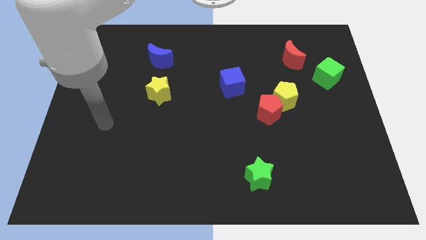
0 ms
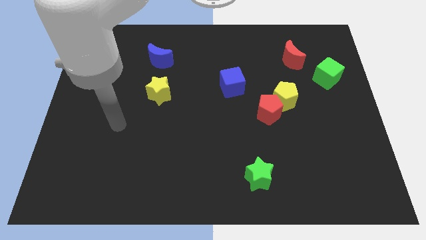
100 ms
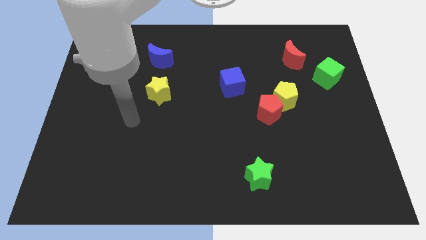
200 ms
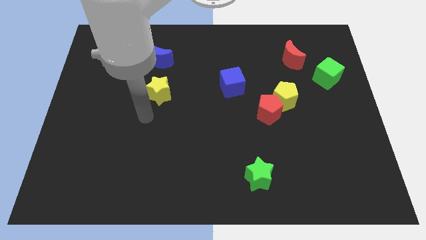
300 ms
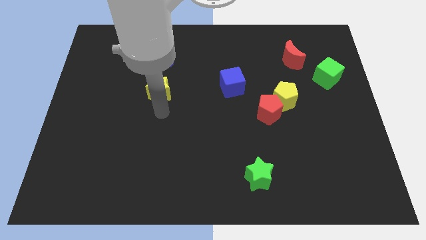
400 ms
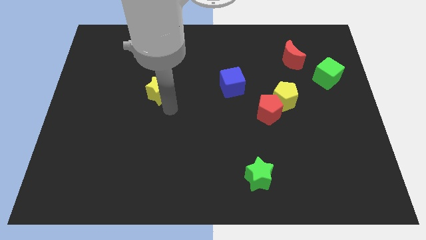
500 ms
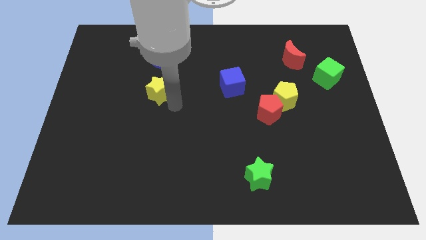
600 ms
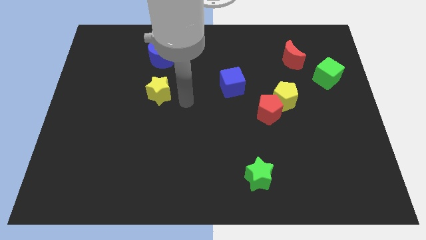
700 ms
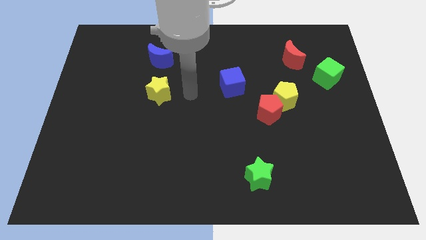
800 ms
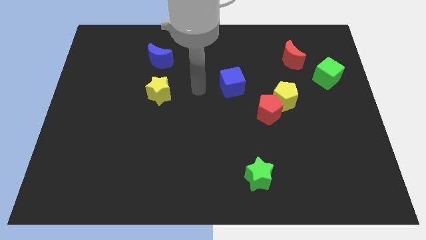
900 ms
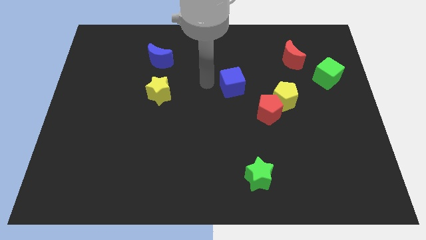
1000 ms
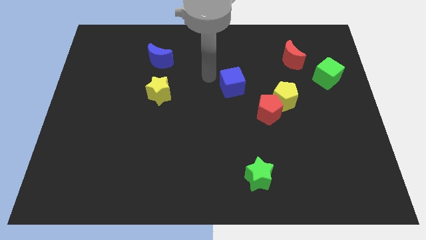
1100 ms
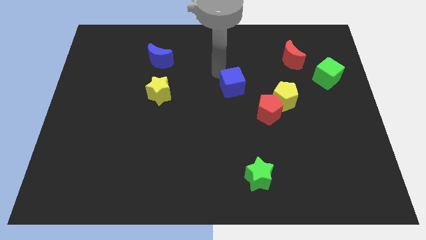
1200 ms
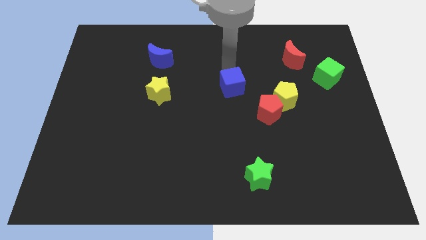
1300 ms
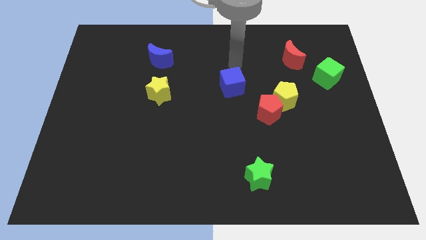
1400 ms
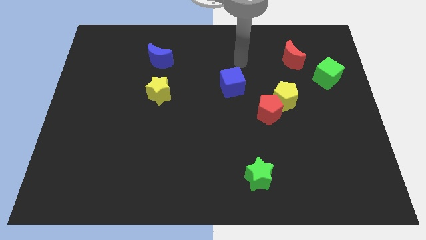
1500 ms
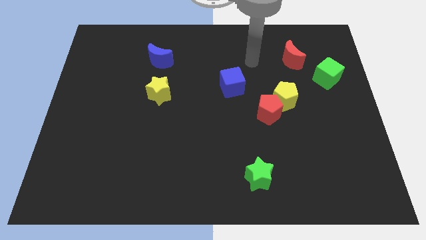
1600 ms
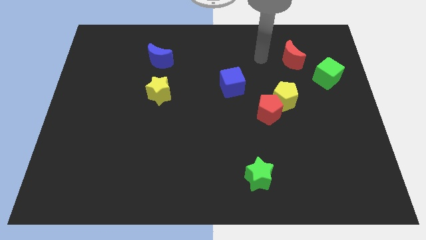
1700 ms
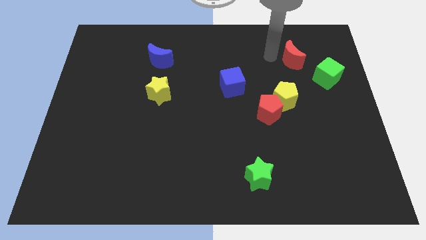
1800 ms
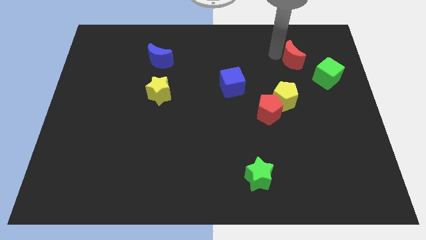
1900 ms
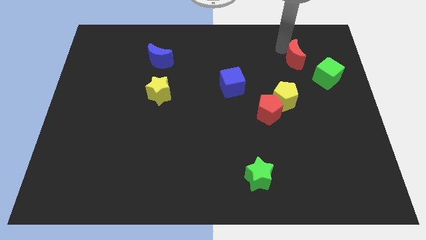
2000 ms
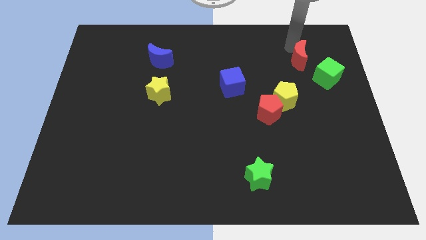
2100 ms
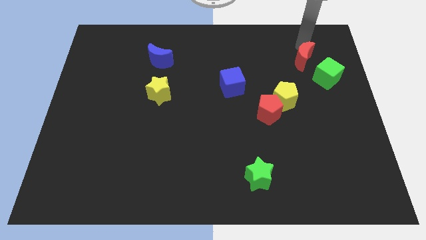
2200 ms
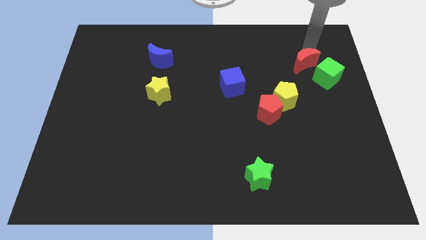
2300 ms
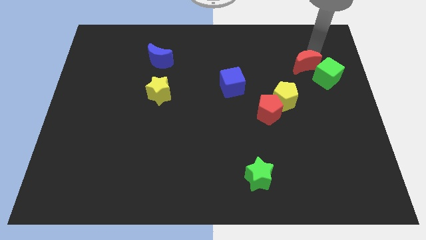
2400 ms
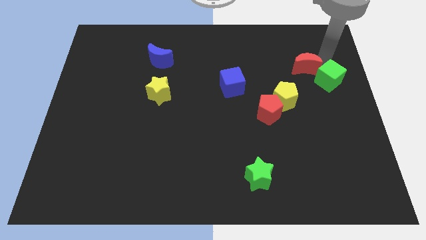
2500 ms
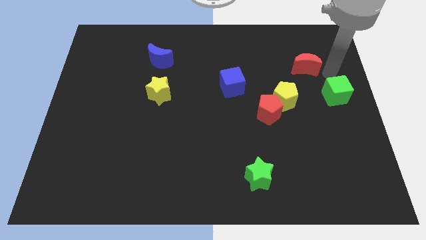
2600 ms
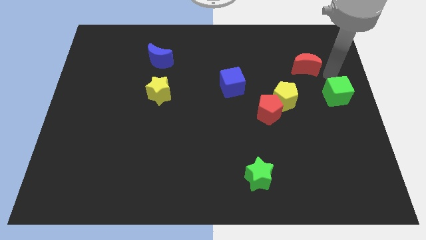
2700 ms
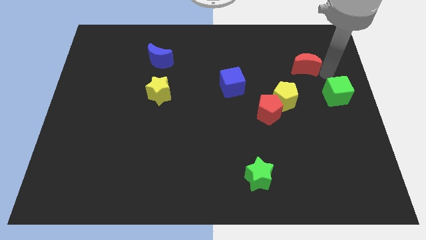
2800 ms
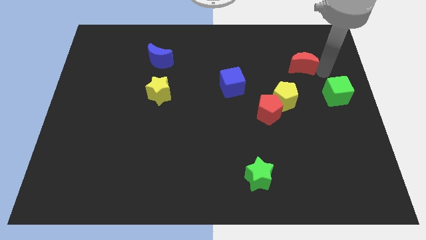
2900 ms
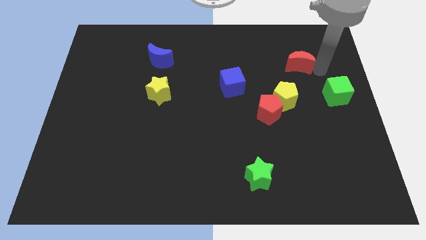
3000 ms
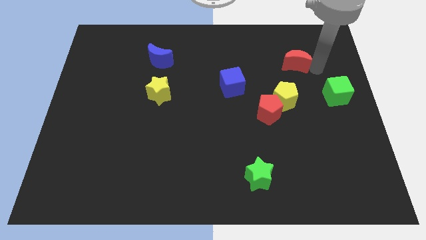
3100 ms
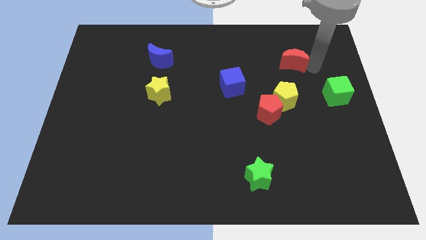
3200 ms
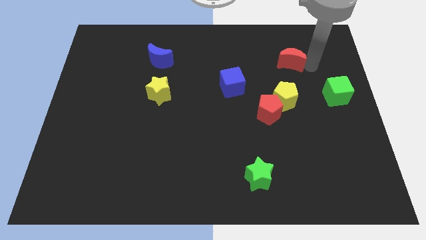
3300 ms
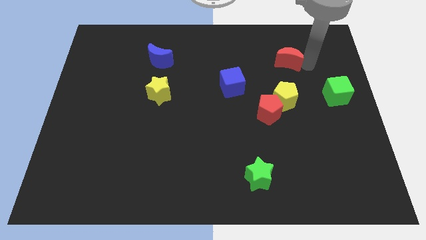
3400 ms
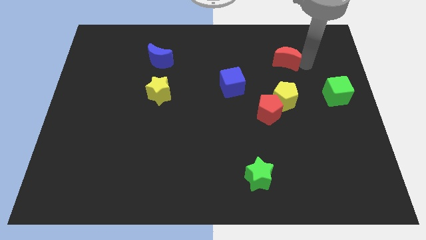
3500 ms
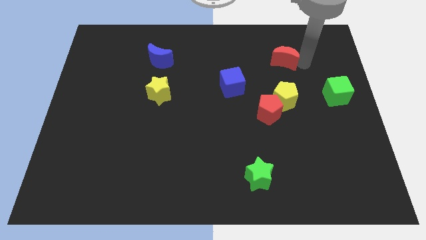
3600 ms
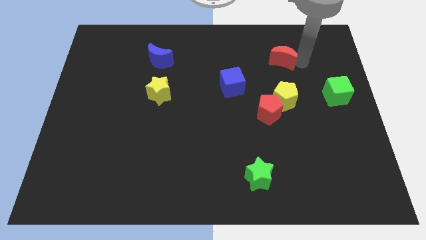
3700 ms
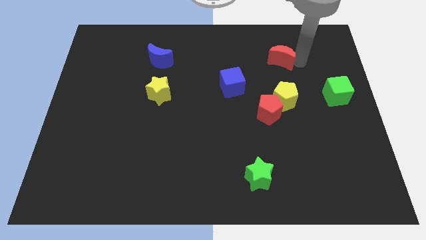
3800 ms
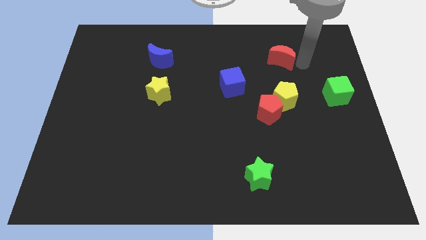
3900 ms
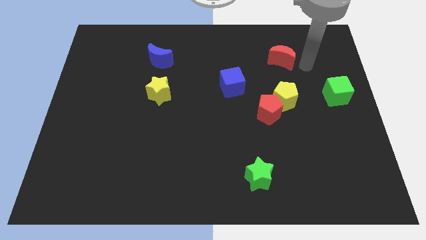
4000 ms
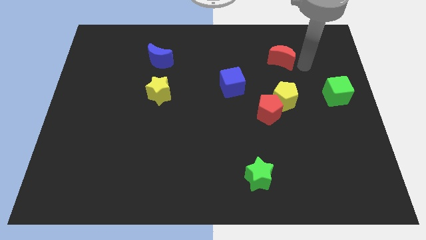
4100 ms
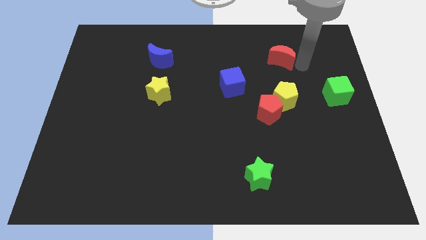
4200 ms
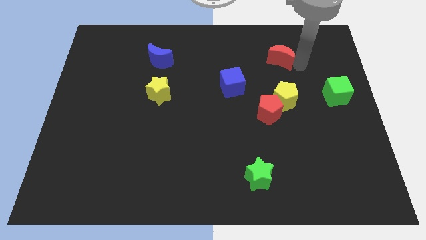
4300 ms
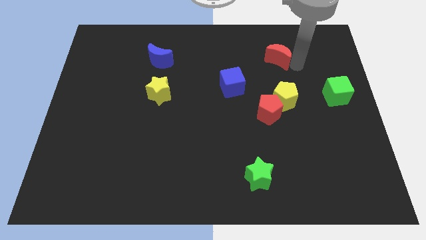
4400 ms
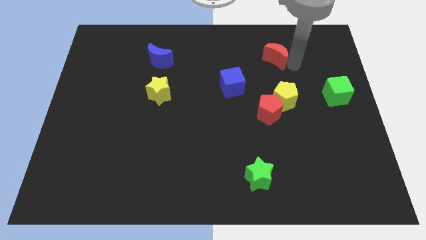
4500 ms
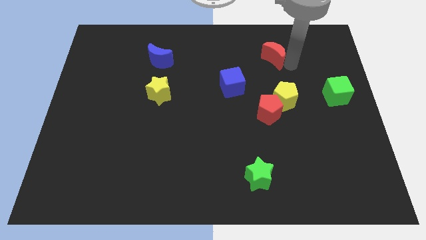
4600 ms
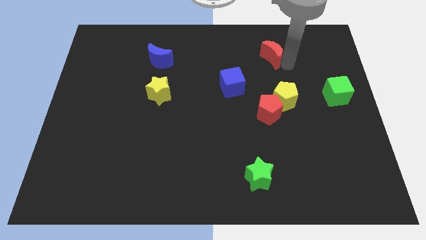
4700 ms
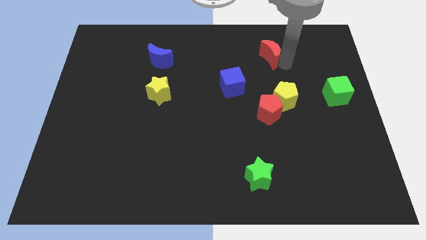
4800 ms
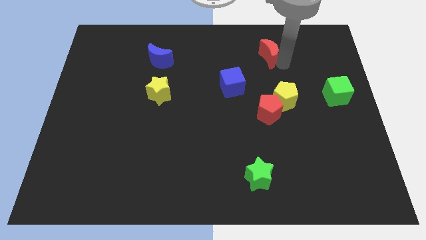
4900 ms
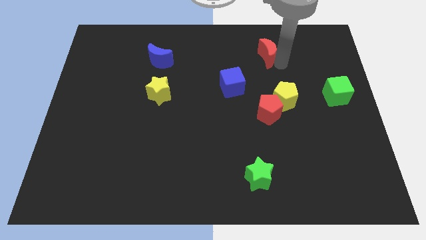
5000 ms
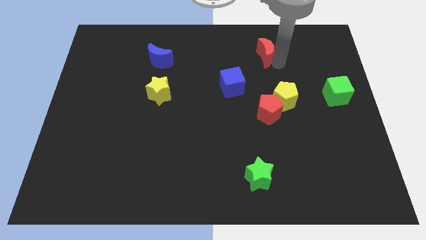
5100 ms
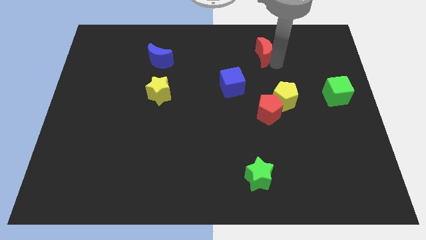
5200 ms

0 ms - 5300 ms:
slide the red moon a little bit left

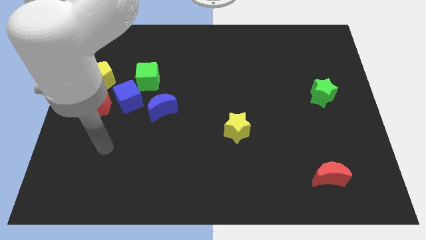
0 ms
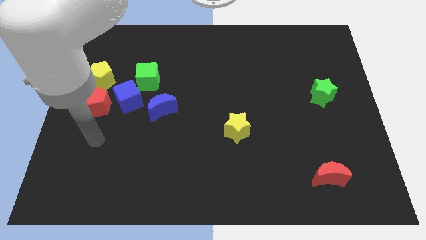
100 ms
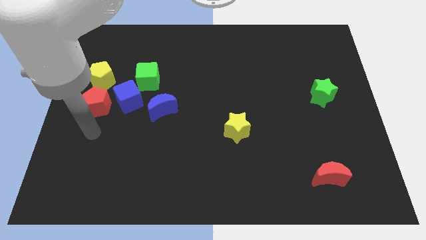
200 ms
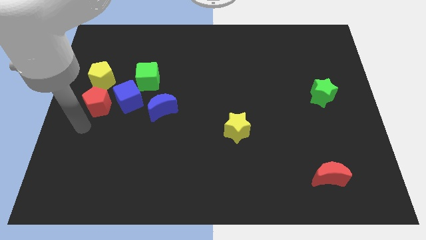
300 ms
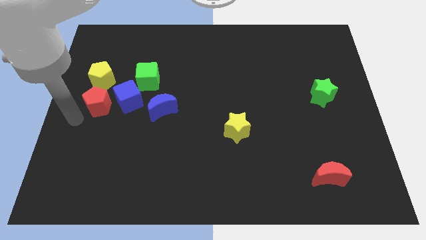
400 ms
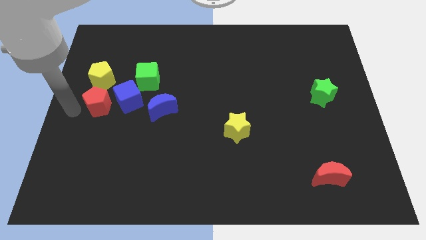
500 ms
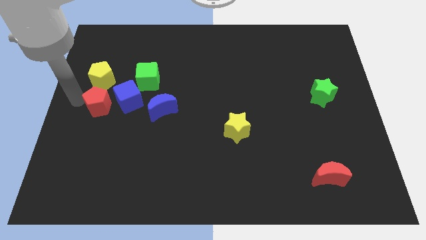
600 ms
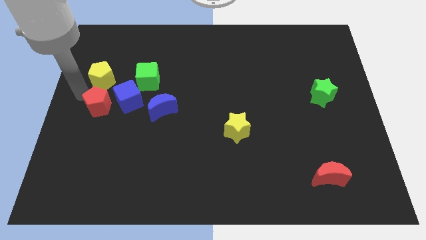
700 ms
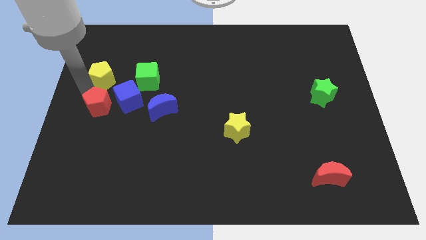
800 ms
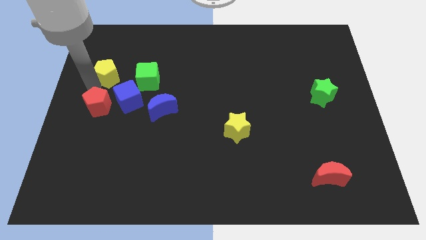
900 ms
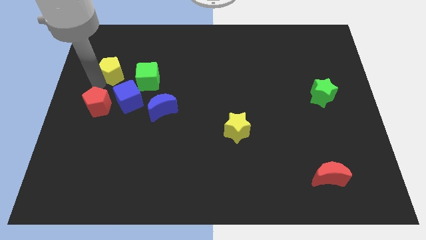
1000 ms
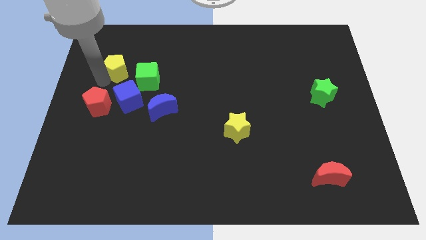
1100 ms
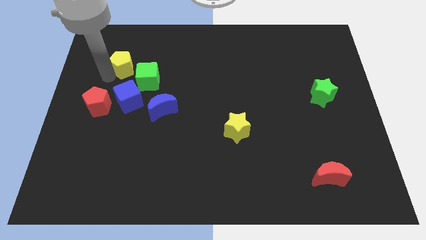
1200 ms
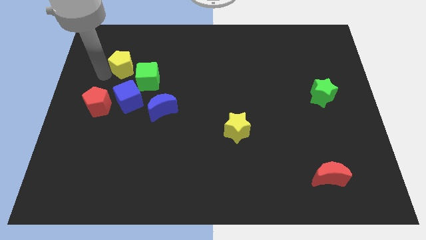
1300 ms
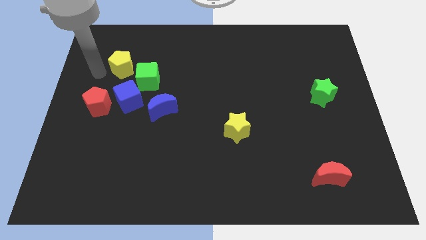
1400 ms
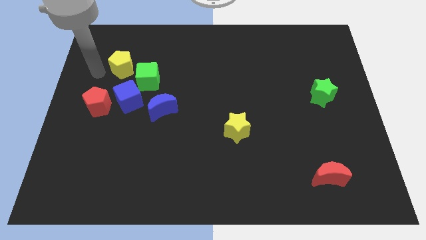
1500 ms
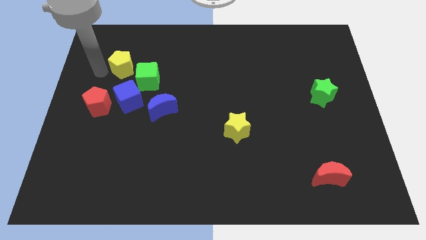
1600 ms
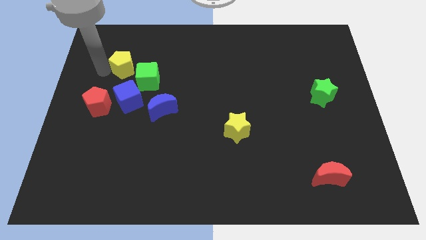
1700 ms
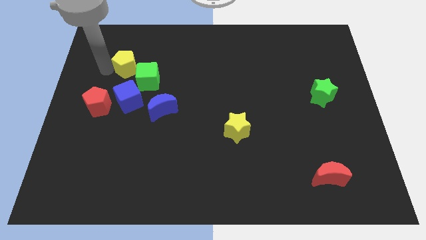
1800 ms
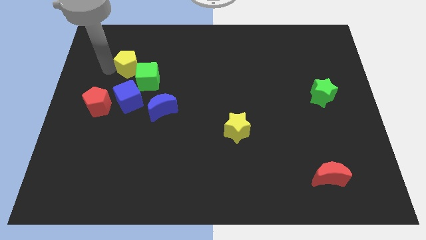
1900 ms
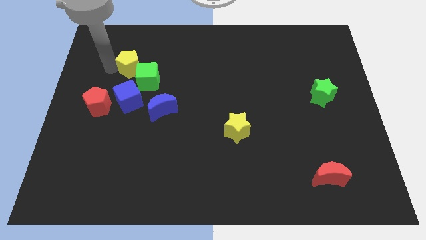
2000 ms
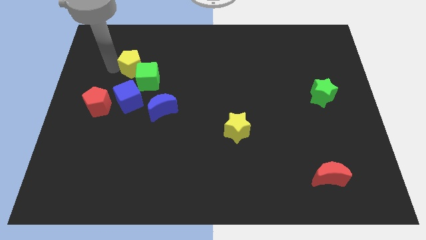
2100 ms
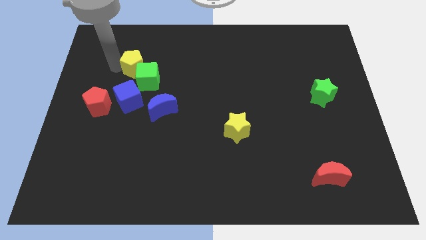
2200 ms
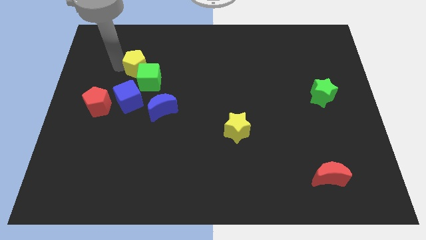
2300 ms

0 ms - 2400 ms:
slide the yellow pentagon right somewhat

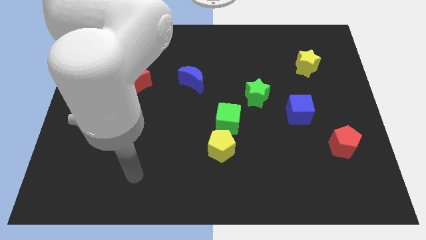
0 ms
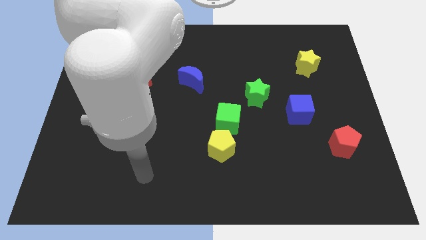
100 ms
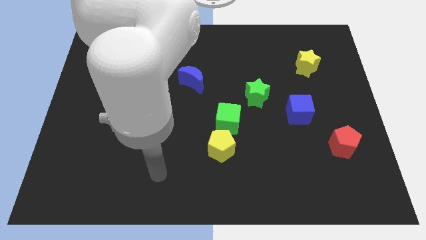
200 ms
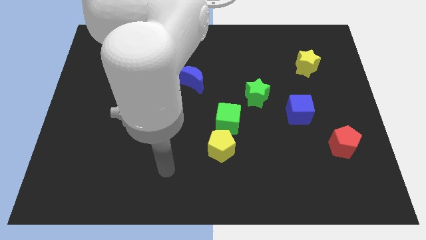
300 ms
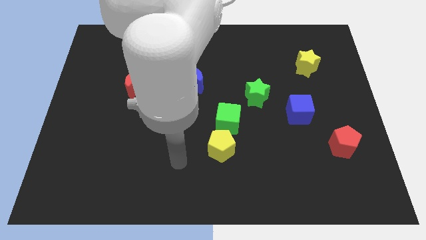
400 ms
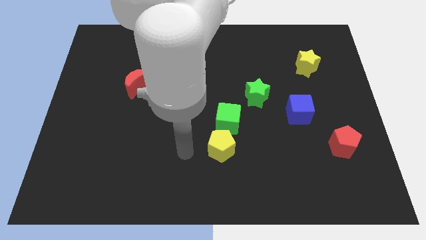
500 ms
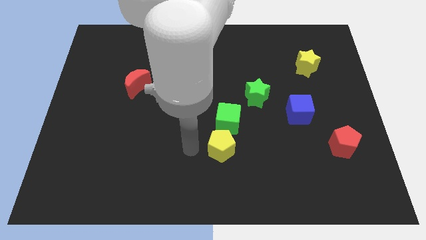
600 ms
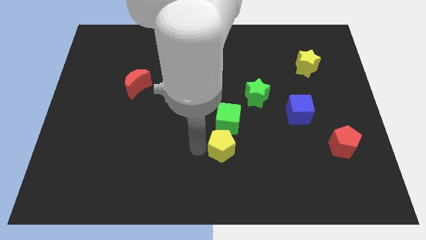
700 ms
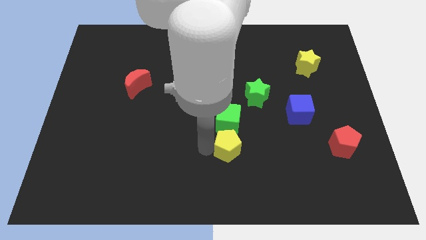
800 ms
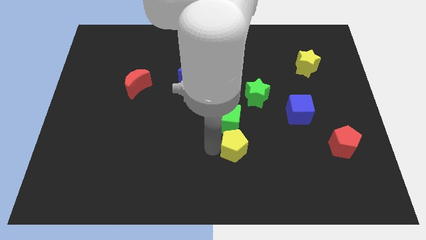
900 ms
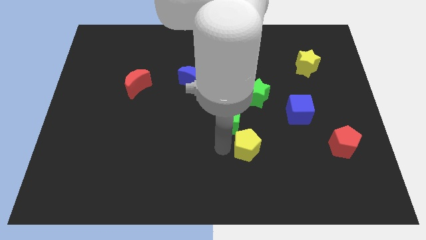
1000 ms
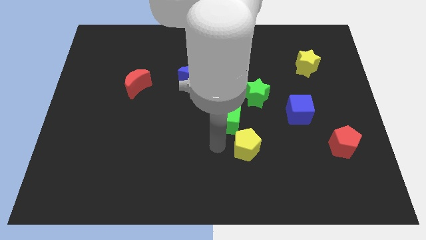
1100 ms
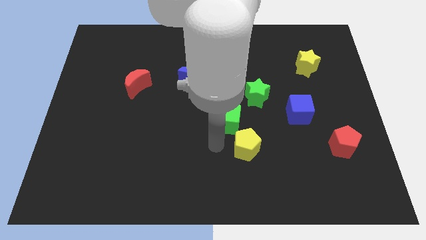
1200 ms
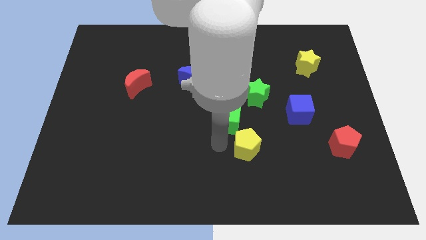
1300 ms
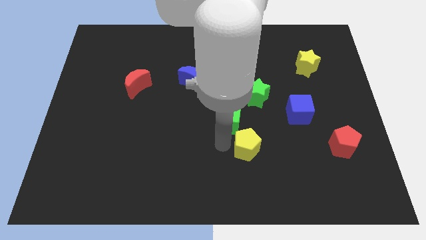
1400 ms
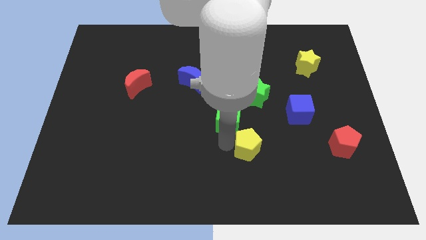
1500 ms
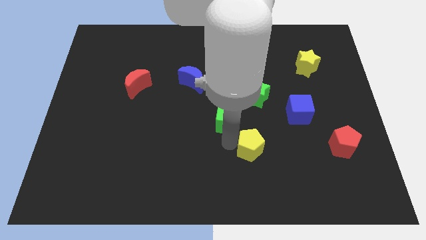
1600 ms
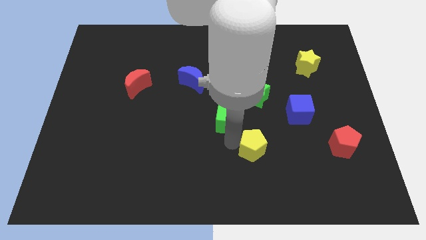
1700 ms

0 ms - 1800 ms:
slide the yellow pentagon somewhat to the right
